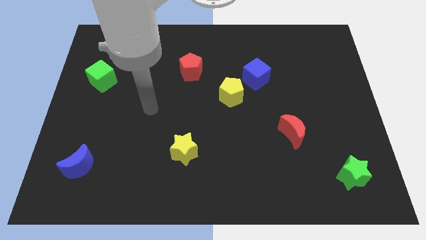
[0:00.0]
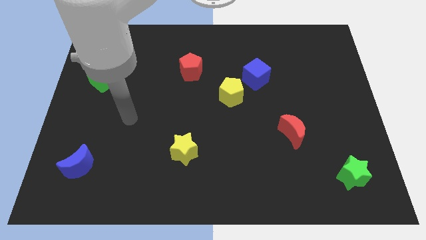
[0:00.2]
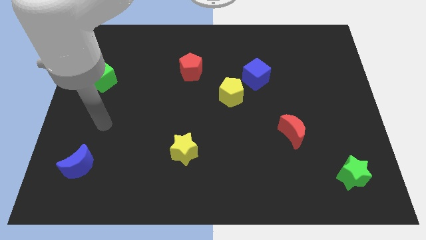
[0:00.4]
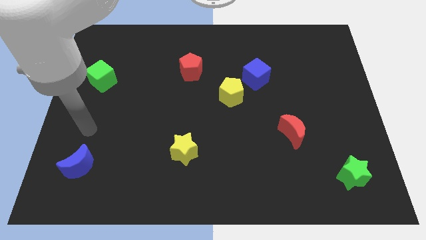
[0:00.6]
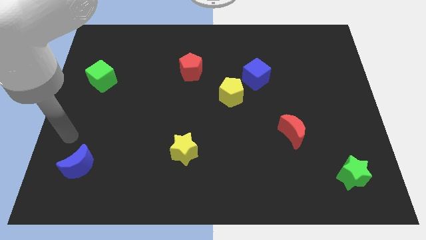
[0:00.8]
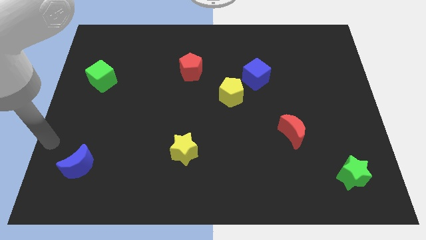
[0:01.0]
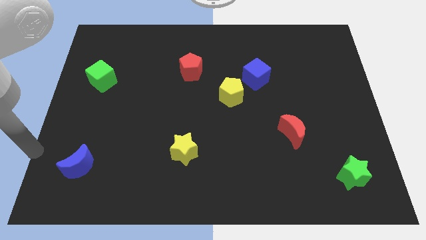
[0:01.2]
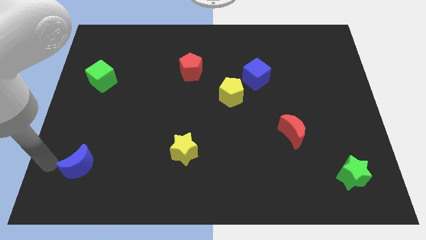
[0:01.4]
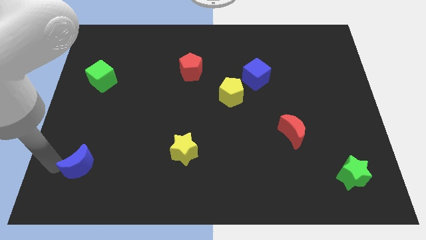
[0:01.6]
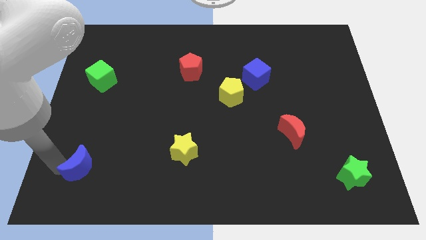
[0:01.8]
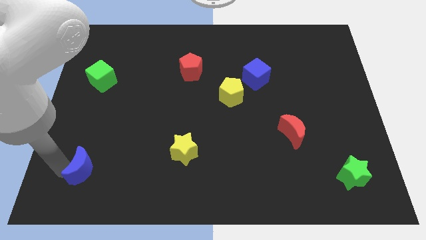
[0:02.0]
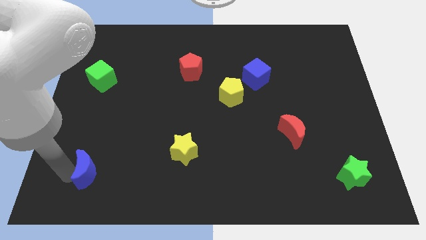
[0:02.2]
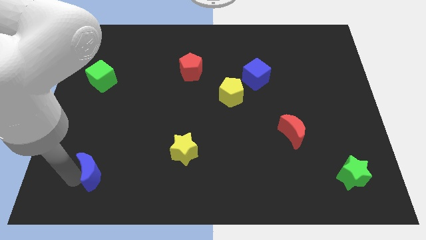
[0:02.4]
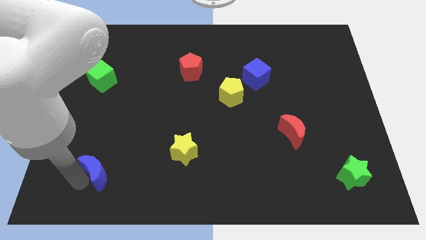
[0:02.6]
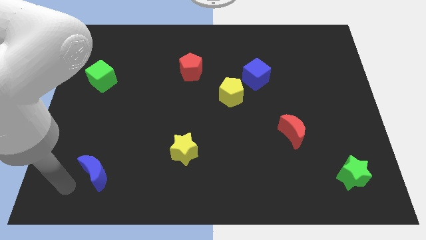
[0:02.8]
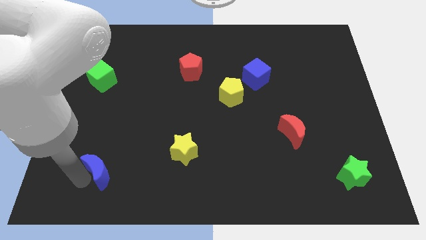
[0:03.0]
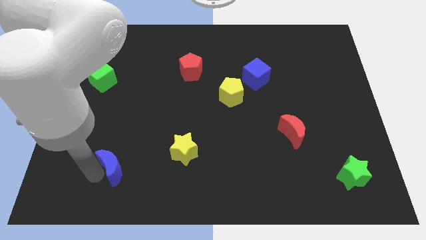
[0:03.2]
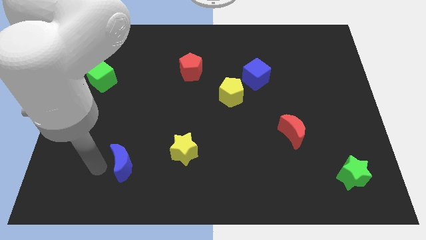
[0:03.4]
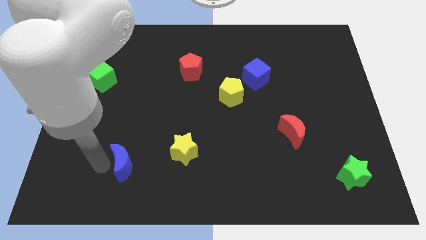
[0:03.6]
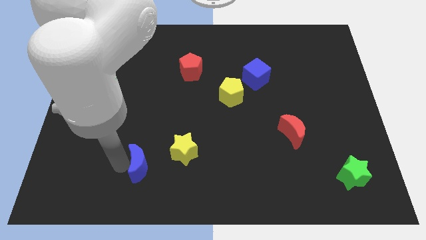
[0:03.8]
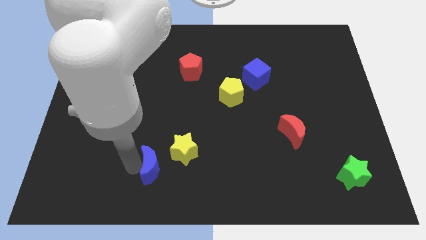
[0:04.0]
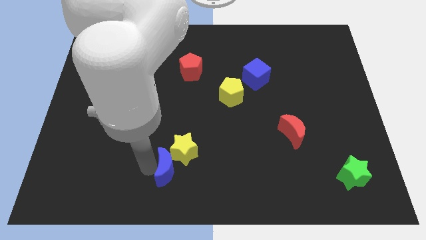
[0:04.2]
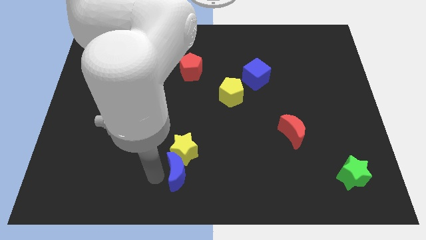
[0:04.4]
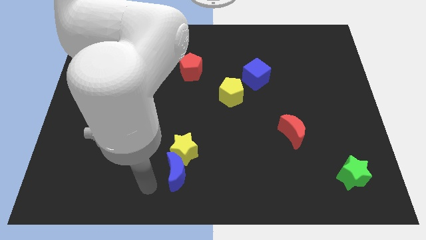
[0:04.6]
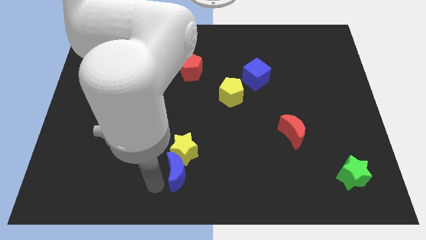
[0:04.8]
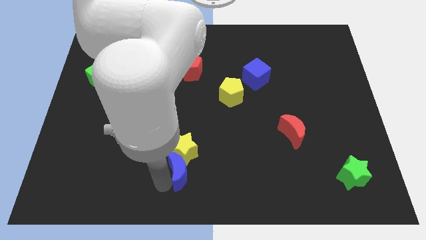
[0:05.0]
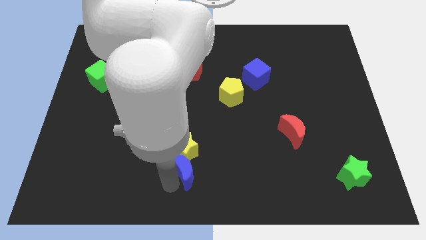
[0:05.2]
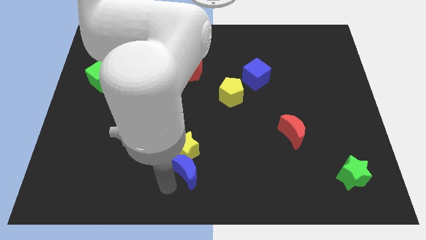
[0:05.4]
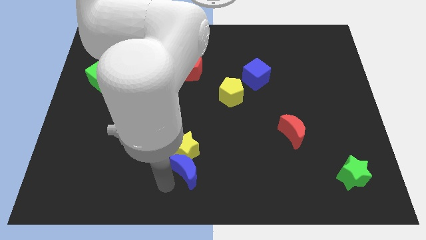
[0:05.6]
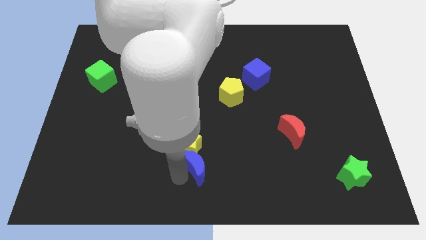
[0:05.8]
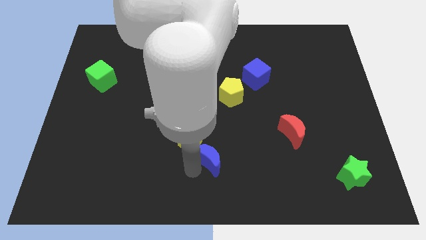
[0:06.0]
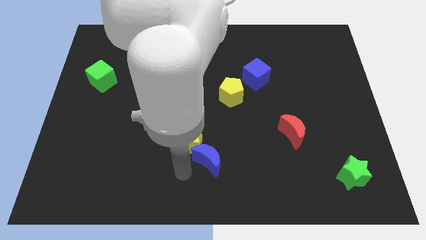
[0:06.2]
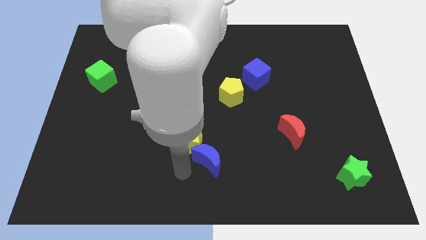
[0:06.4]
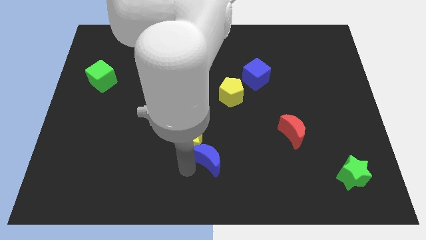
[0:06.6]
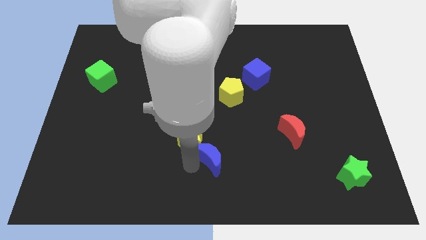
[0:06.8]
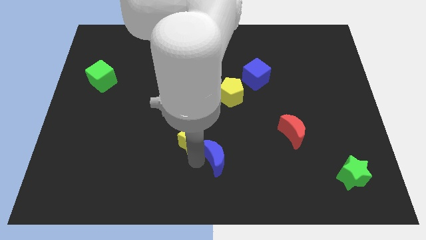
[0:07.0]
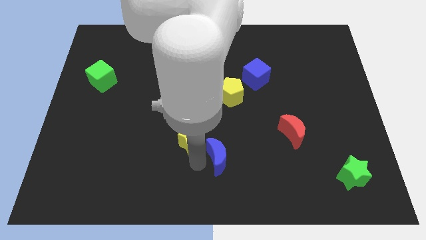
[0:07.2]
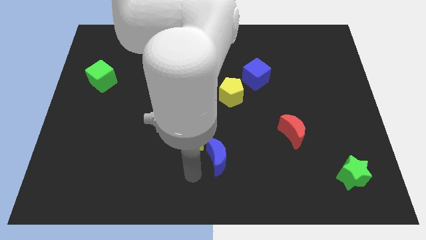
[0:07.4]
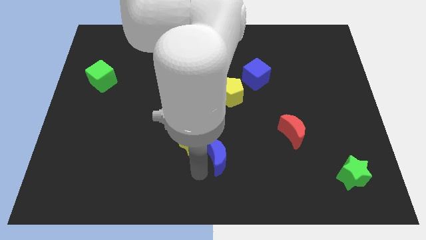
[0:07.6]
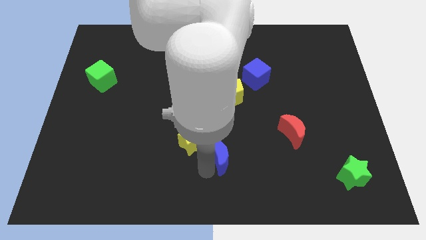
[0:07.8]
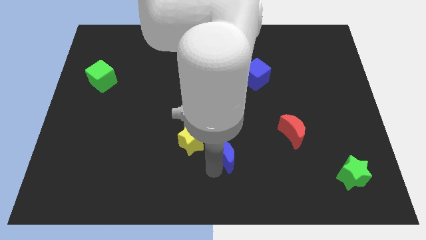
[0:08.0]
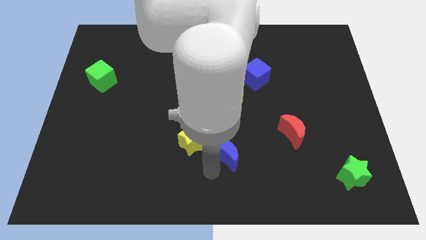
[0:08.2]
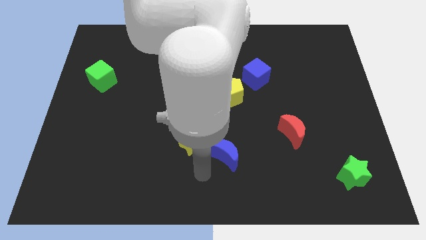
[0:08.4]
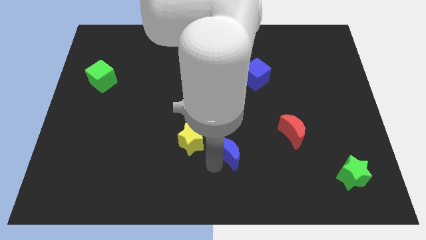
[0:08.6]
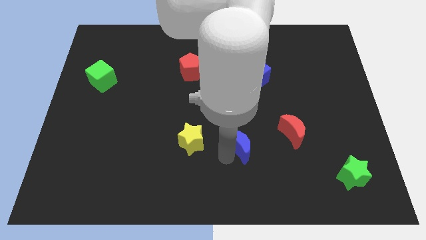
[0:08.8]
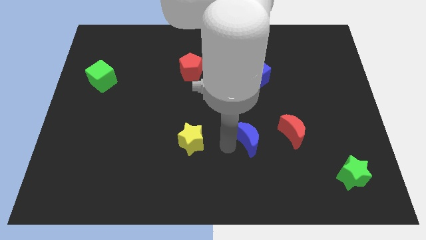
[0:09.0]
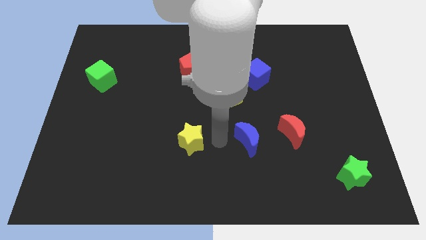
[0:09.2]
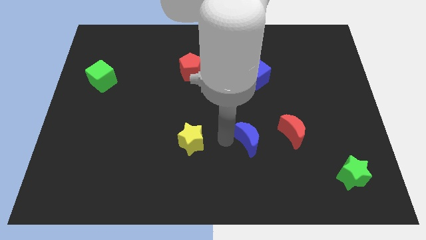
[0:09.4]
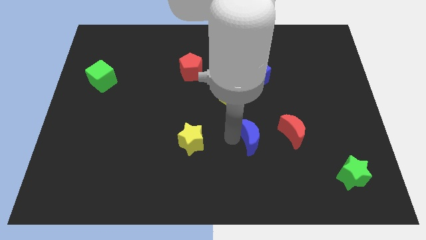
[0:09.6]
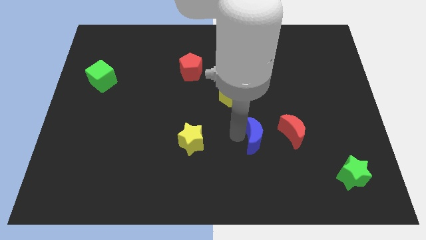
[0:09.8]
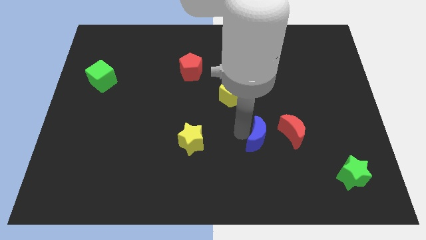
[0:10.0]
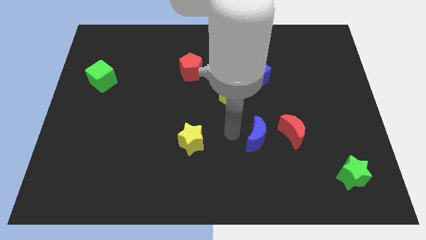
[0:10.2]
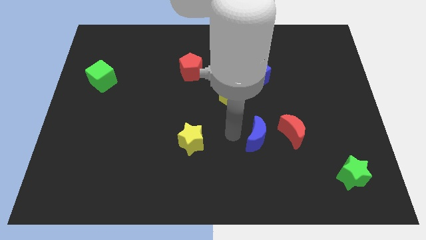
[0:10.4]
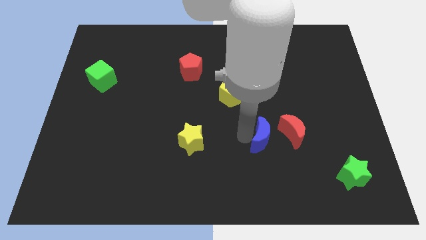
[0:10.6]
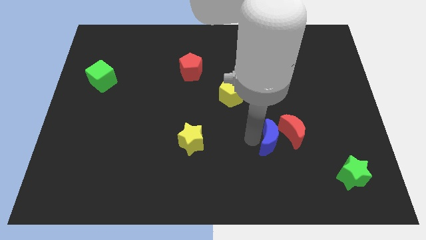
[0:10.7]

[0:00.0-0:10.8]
put the blue moon towards the red moon

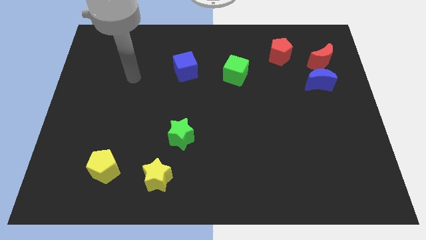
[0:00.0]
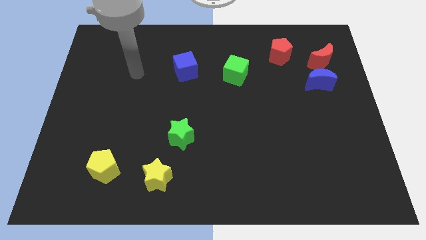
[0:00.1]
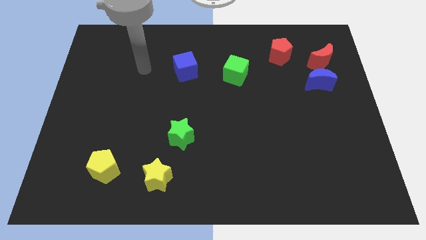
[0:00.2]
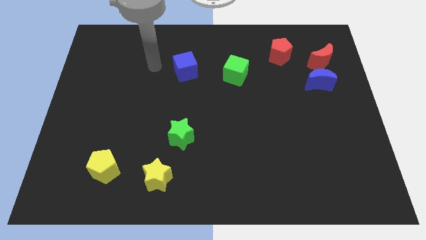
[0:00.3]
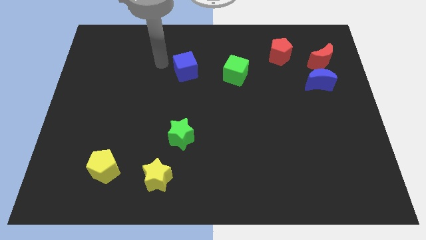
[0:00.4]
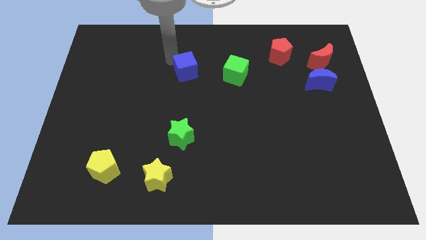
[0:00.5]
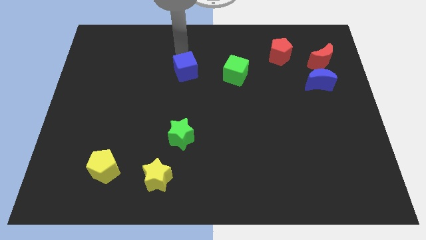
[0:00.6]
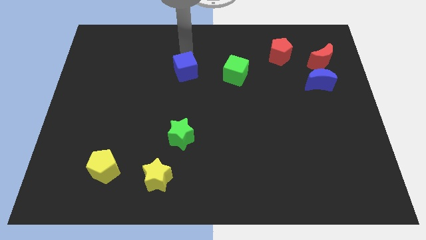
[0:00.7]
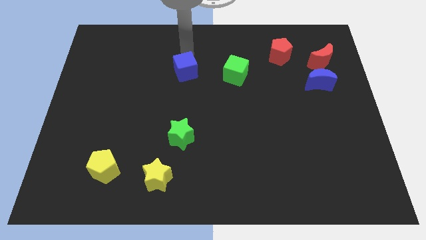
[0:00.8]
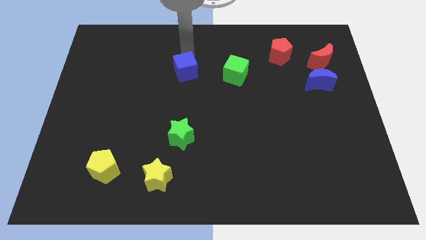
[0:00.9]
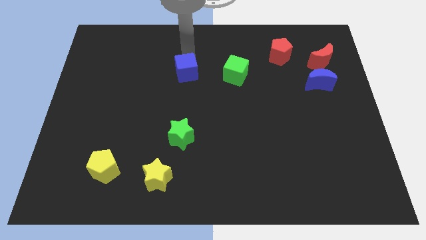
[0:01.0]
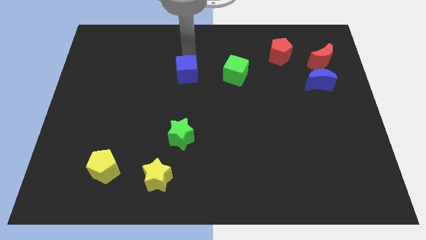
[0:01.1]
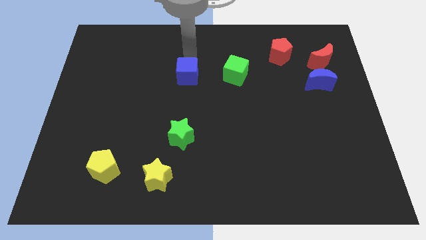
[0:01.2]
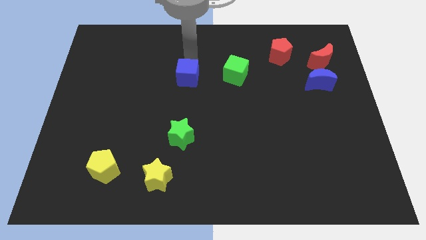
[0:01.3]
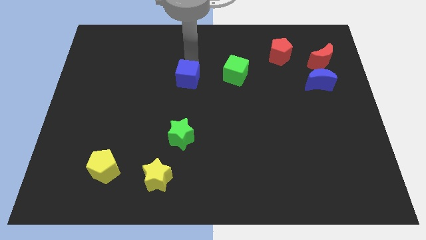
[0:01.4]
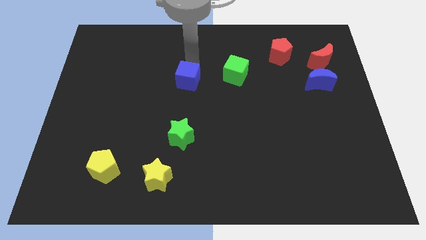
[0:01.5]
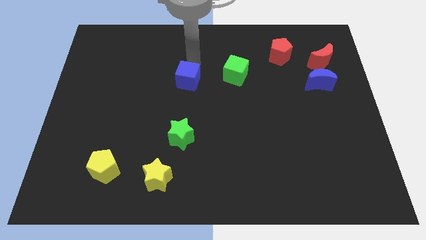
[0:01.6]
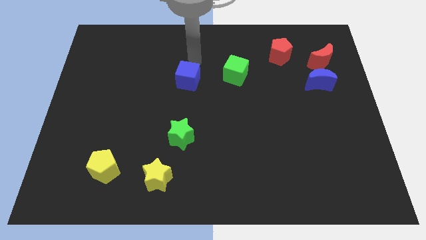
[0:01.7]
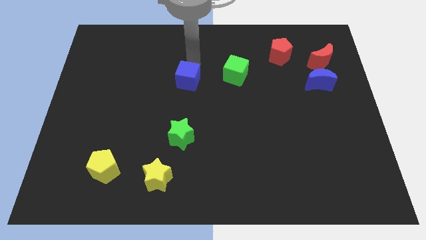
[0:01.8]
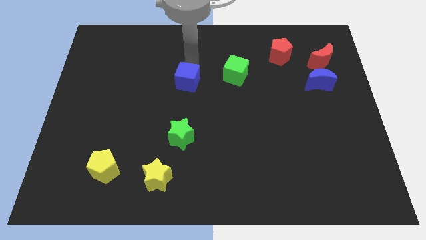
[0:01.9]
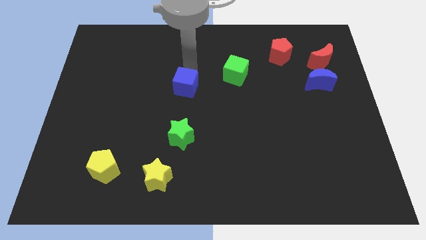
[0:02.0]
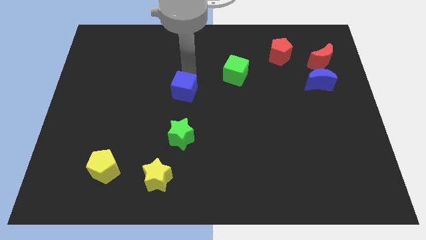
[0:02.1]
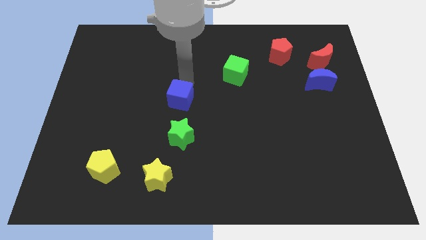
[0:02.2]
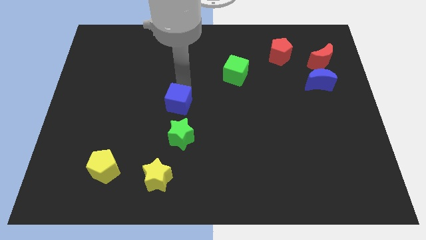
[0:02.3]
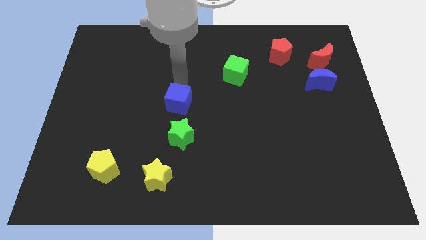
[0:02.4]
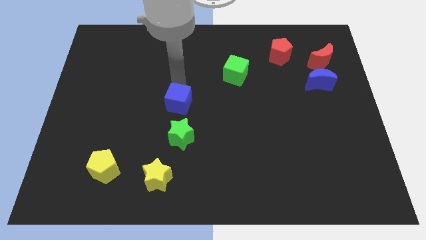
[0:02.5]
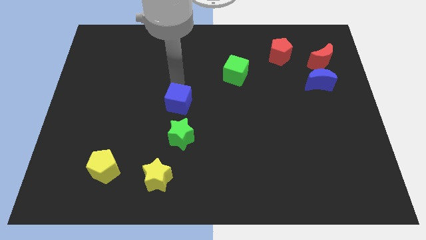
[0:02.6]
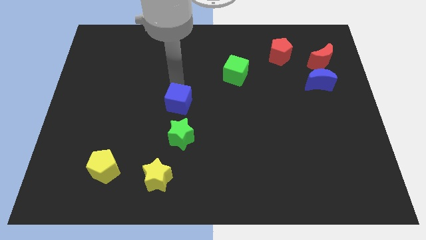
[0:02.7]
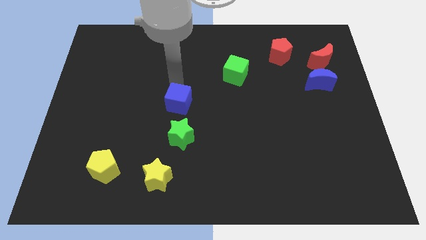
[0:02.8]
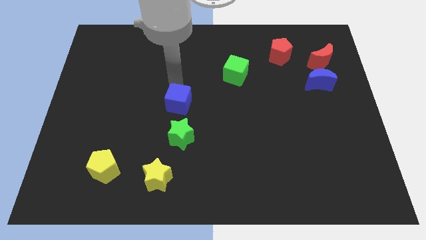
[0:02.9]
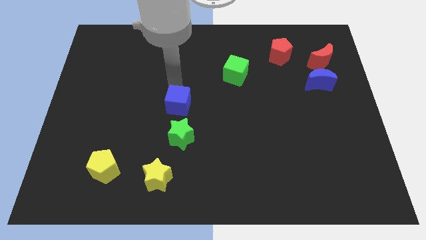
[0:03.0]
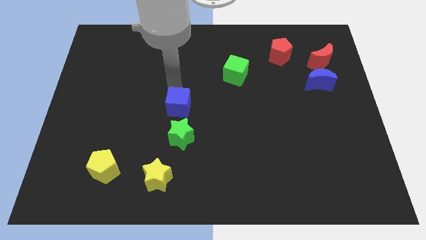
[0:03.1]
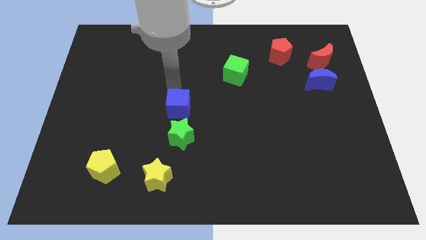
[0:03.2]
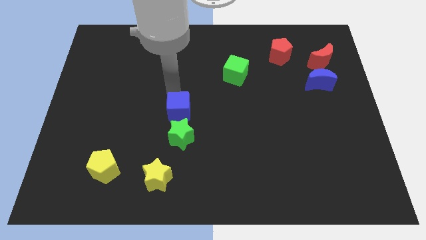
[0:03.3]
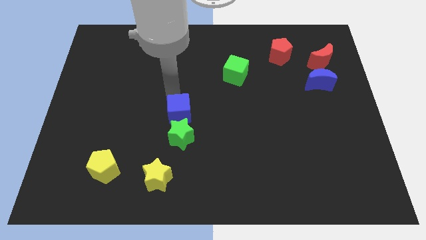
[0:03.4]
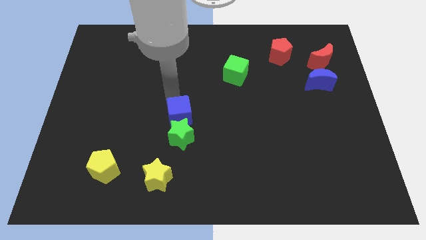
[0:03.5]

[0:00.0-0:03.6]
push the blue cube next to the green star
